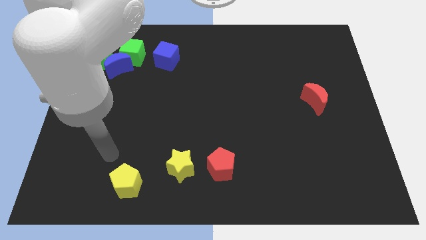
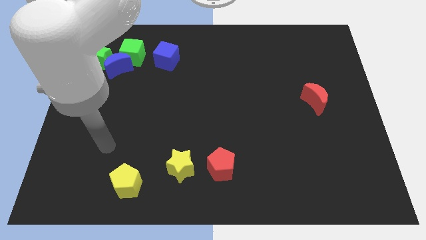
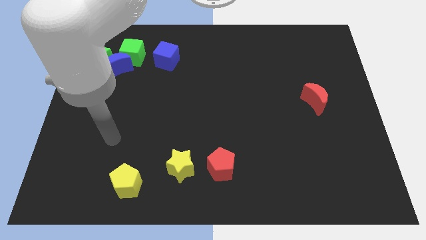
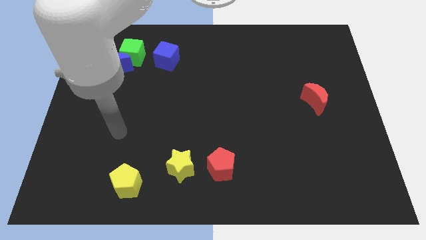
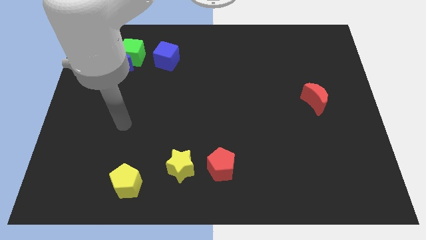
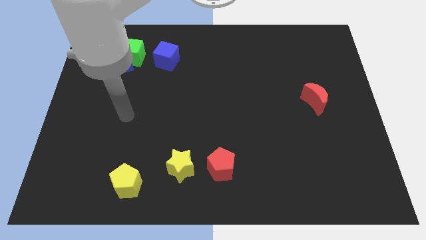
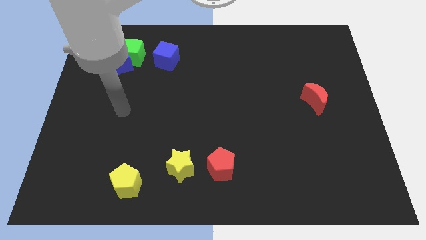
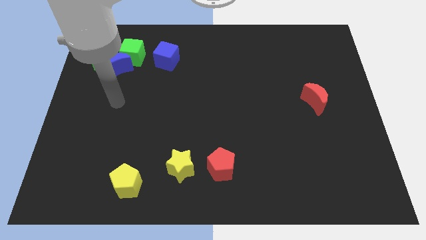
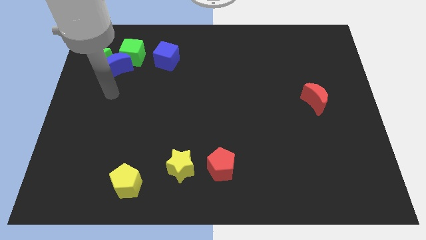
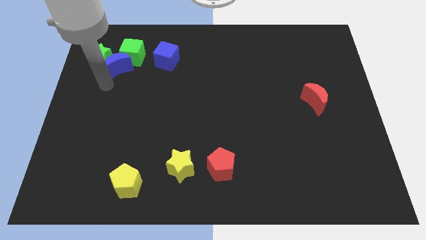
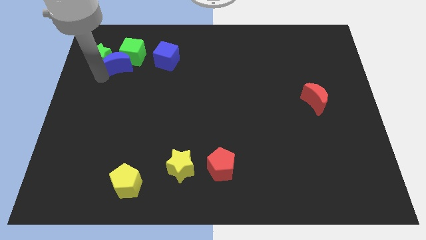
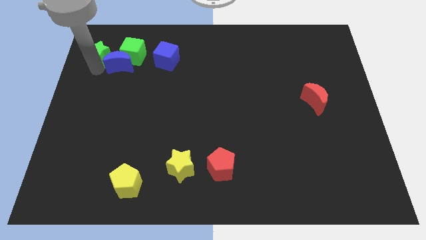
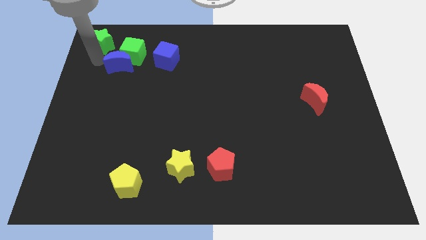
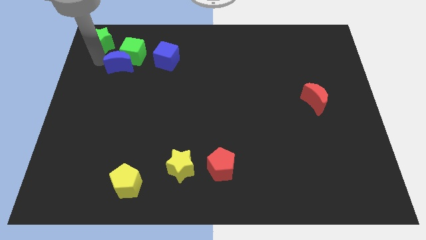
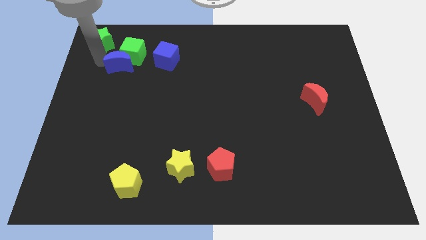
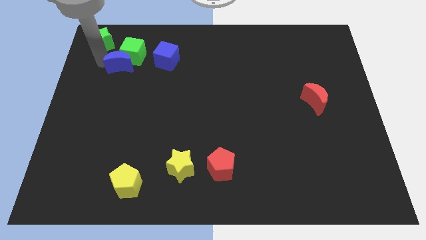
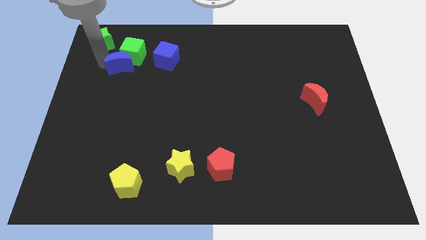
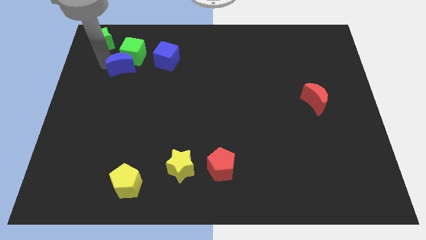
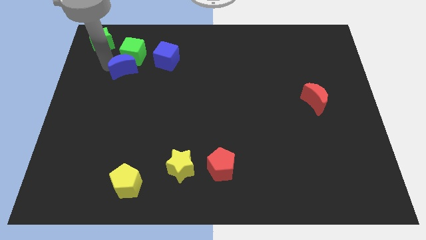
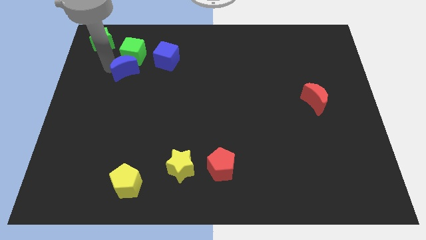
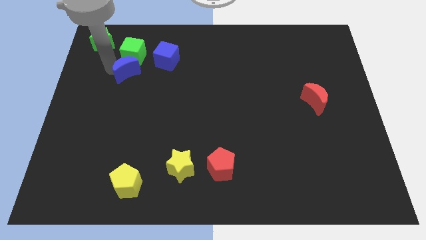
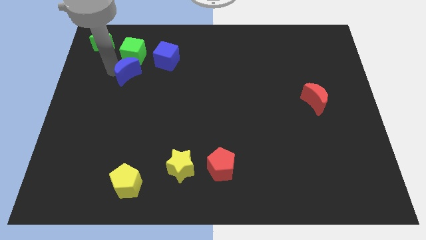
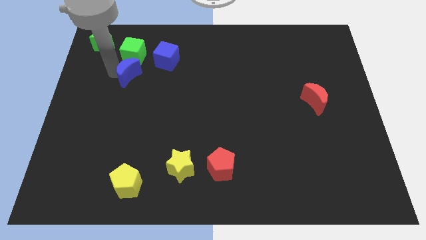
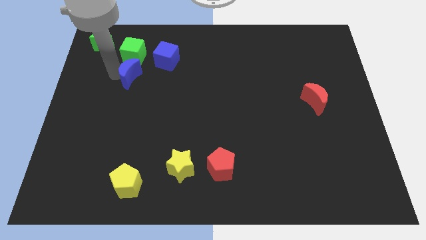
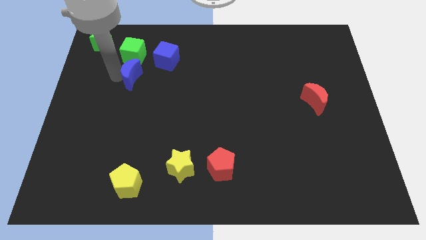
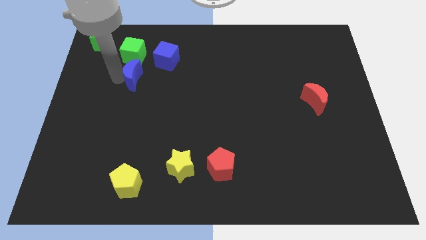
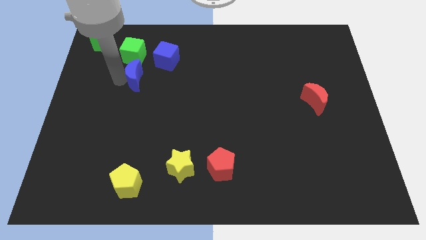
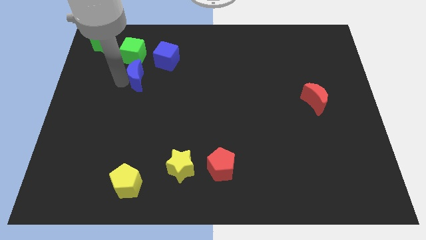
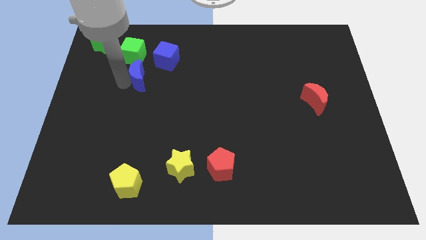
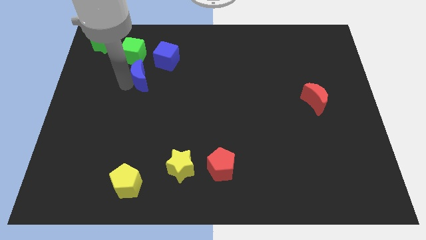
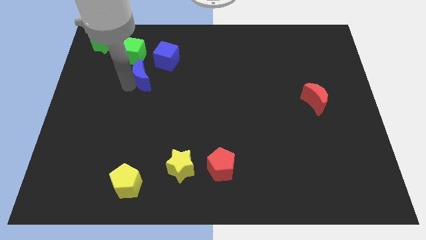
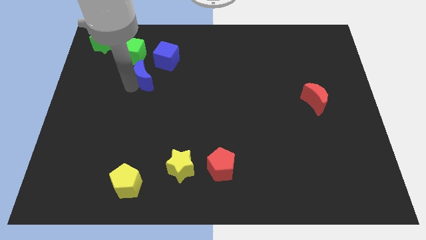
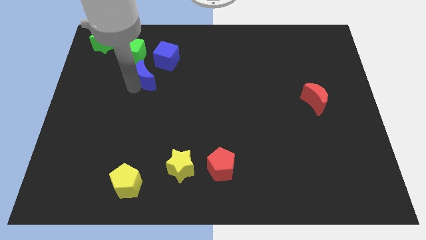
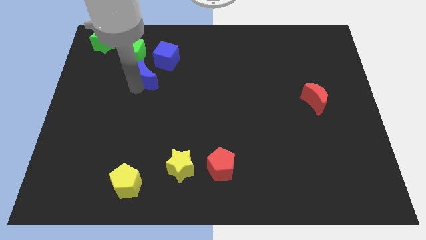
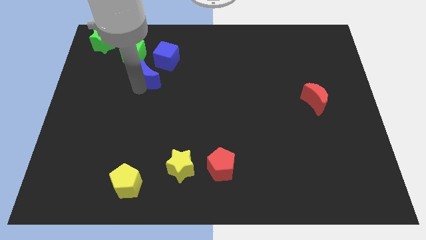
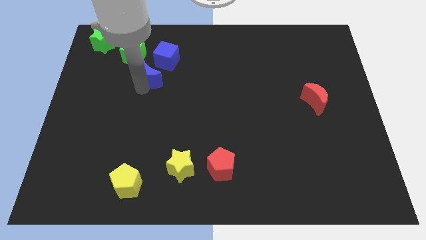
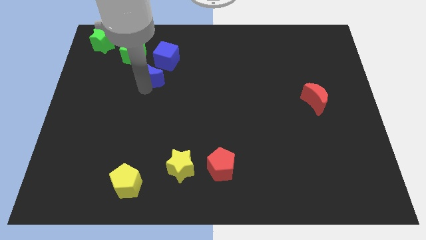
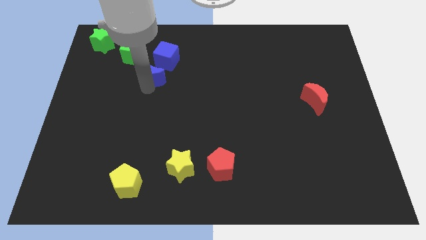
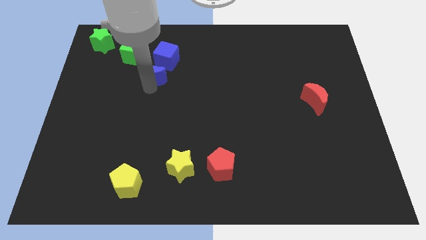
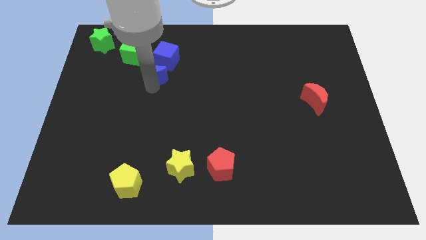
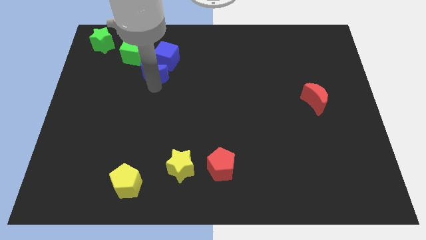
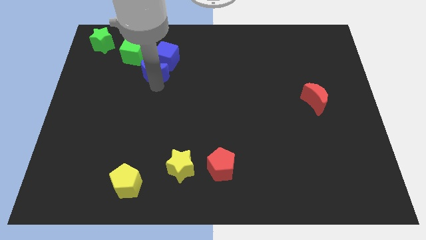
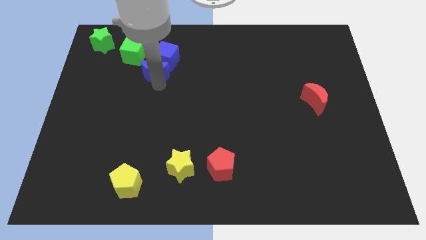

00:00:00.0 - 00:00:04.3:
push the blue moon next to the blue cube

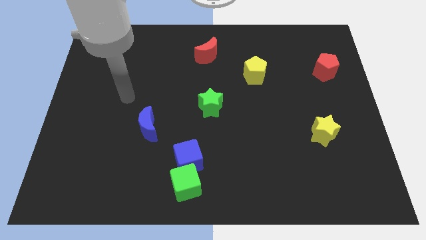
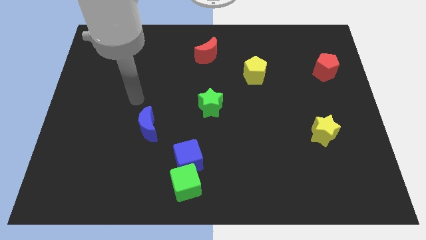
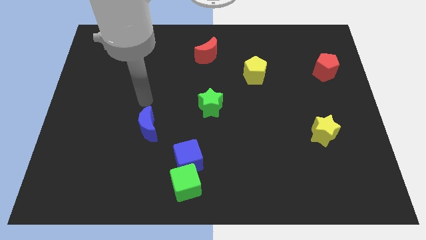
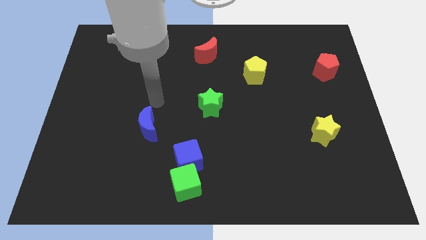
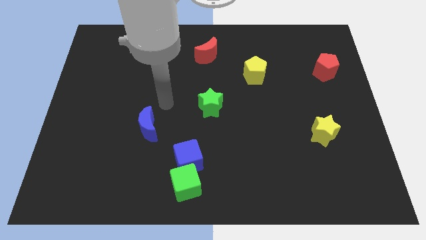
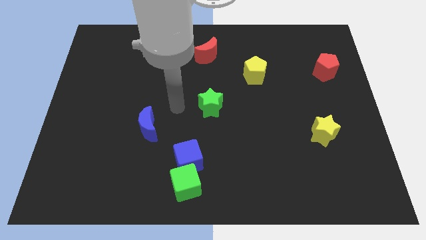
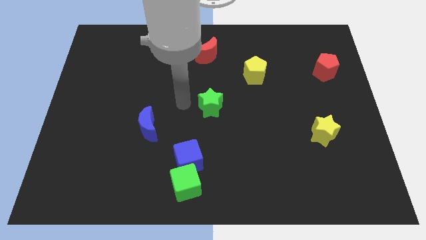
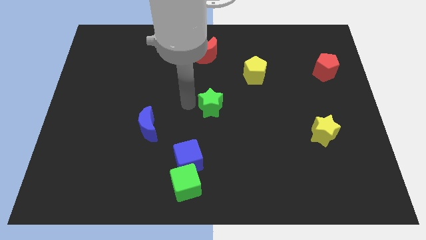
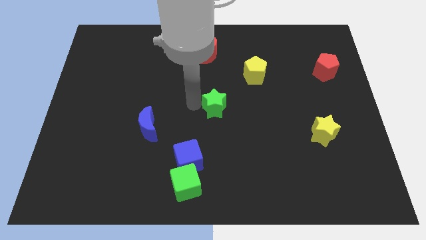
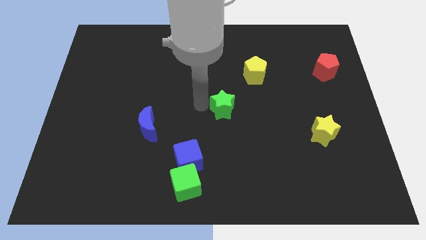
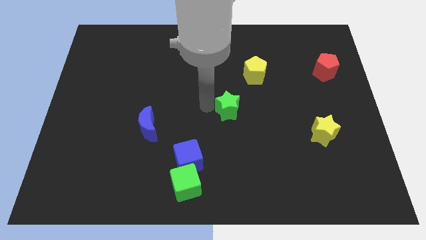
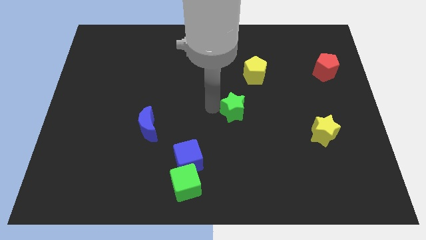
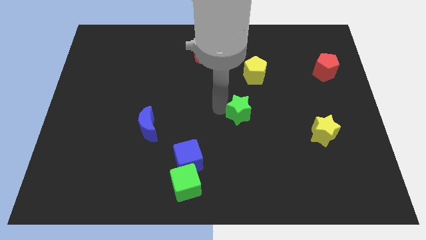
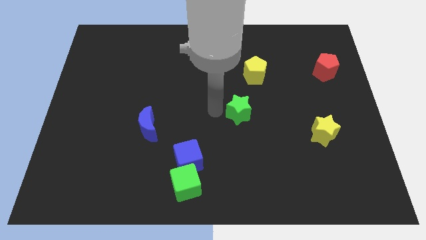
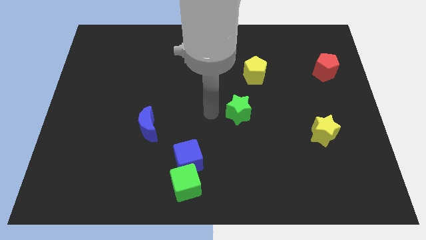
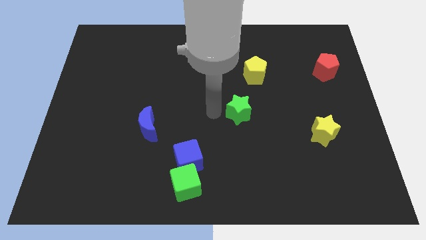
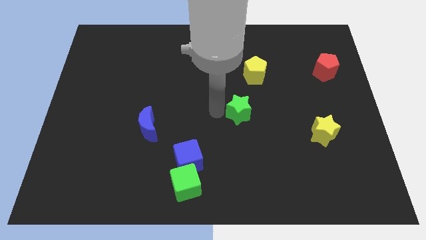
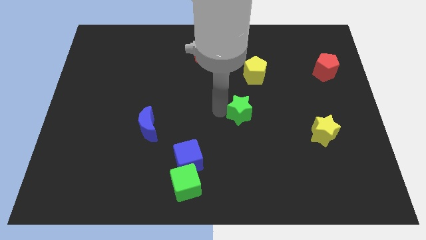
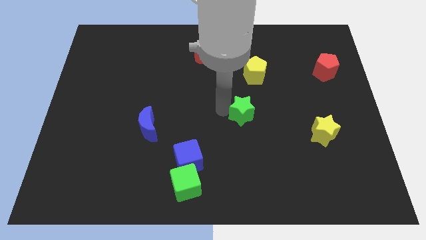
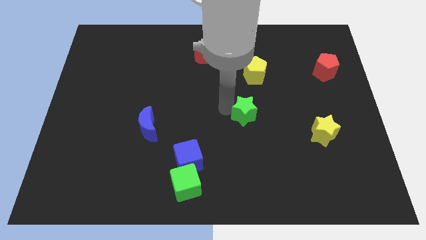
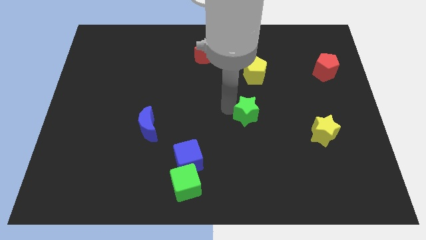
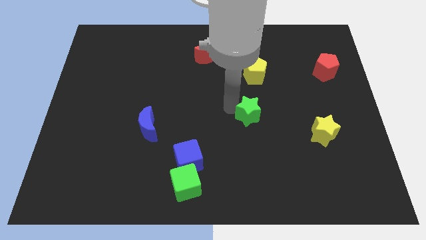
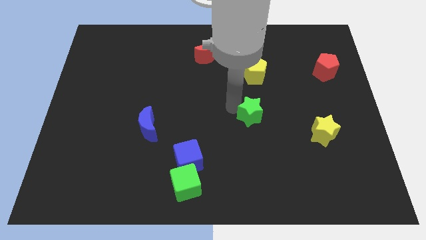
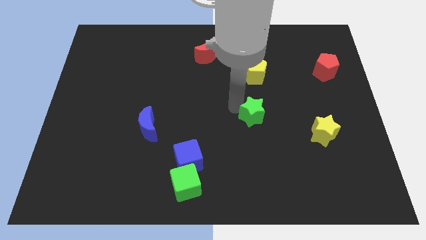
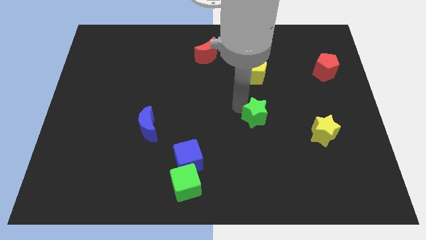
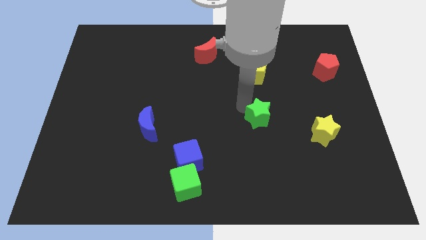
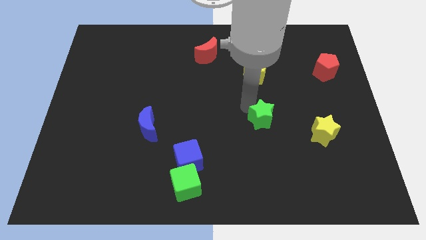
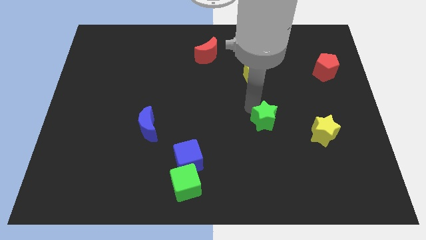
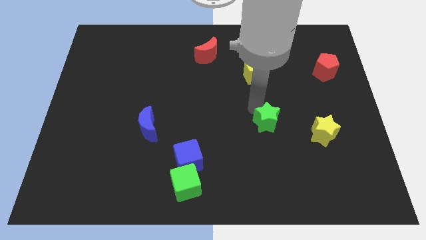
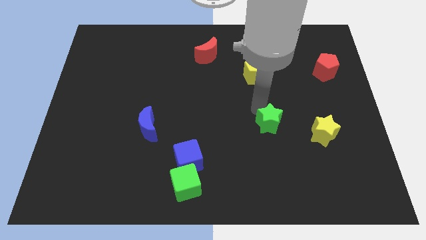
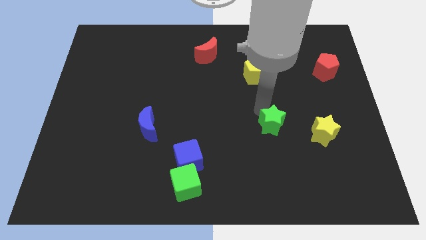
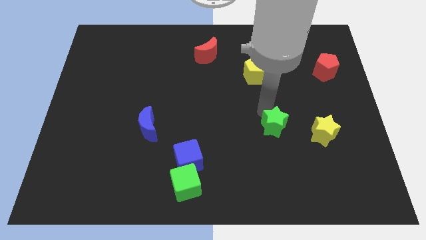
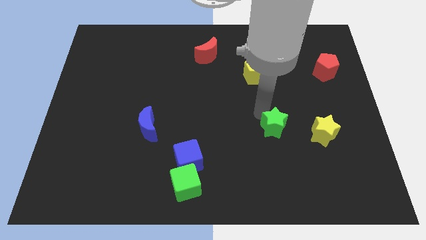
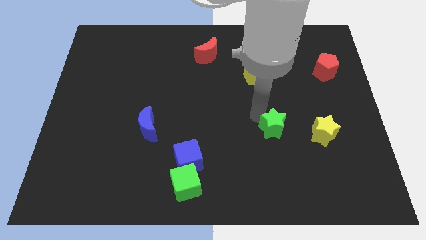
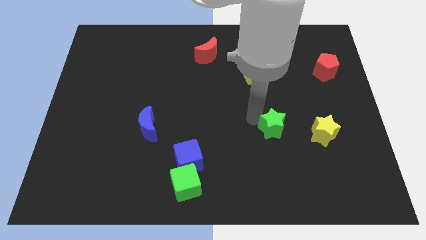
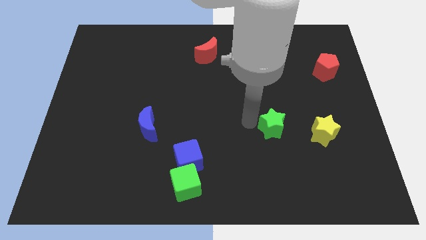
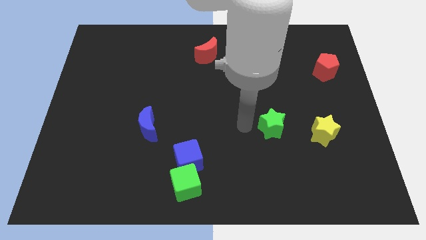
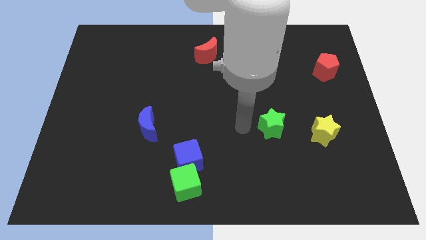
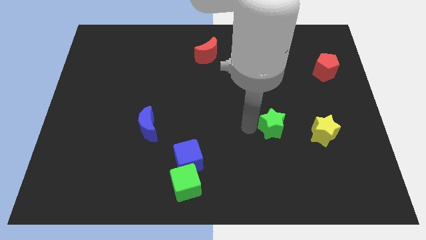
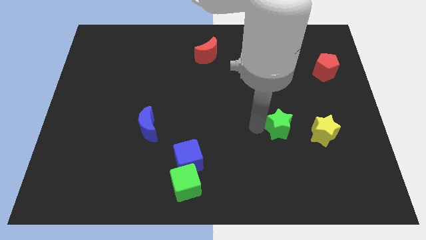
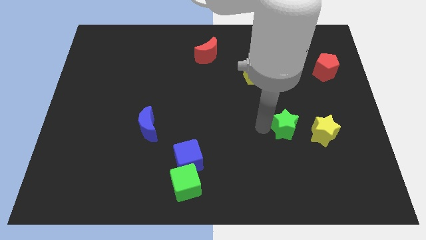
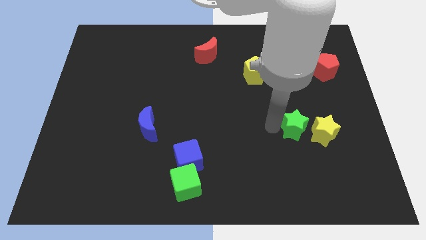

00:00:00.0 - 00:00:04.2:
push the green star to the yellow star
